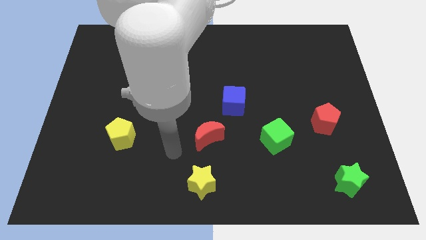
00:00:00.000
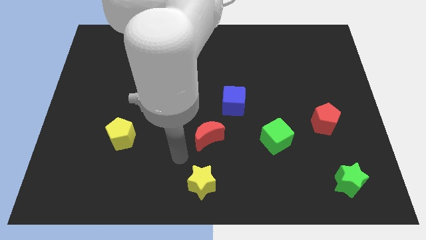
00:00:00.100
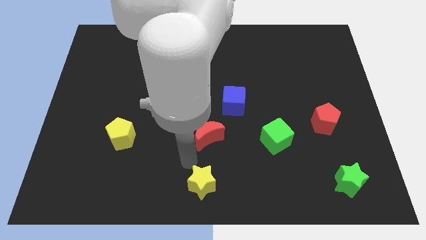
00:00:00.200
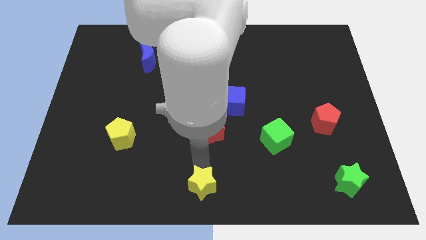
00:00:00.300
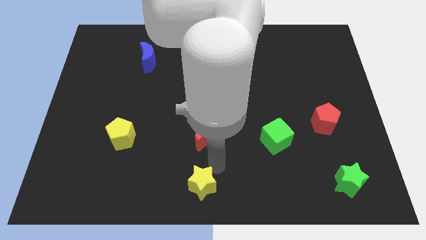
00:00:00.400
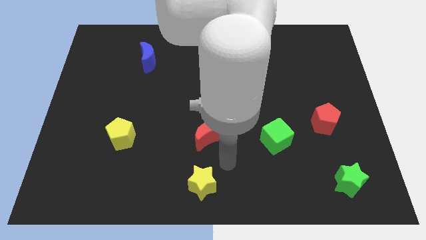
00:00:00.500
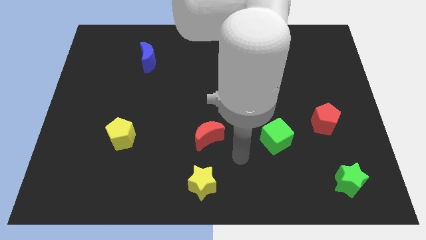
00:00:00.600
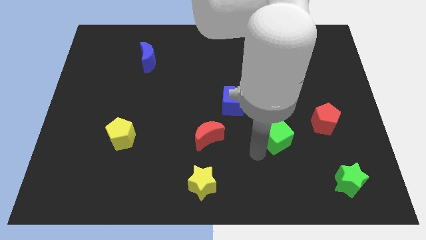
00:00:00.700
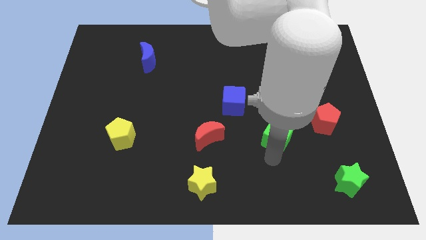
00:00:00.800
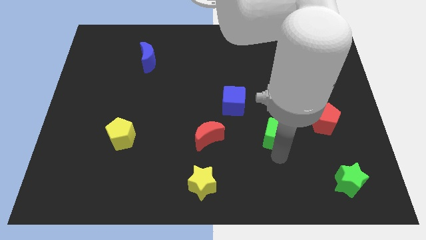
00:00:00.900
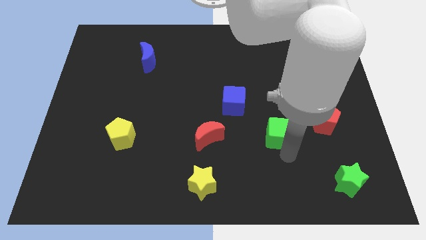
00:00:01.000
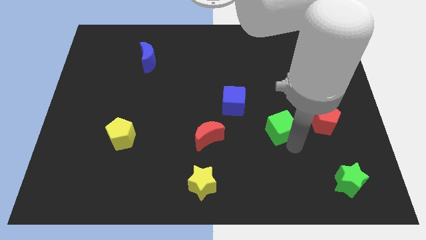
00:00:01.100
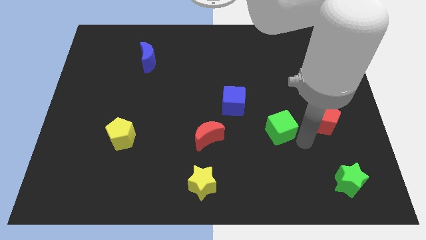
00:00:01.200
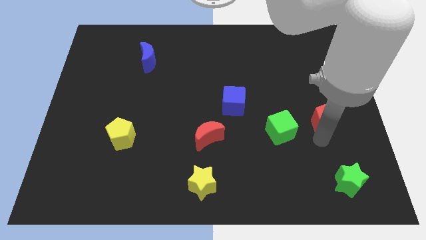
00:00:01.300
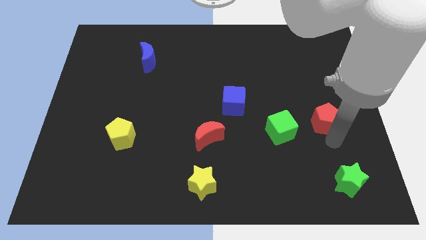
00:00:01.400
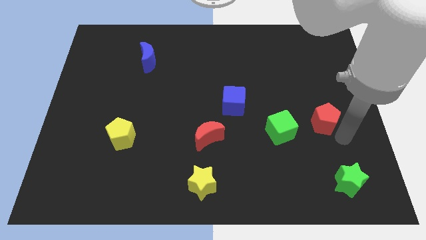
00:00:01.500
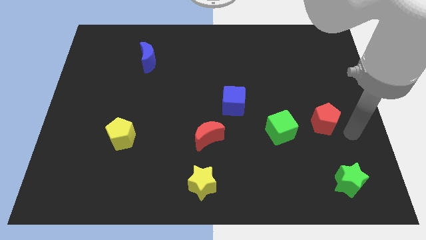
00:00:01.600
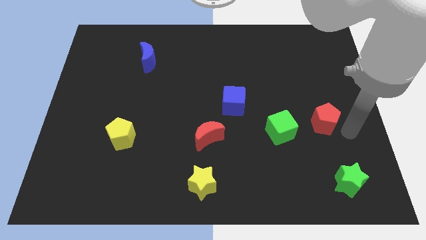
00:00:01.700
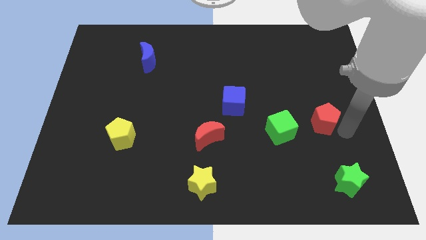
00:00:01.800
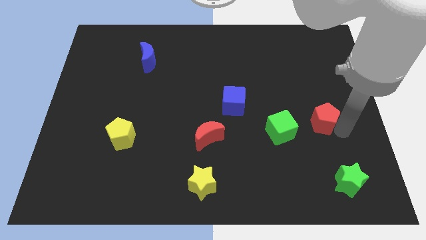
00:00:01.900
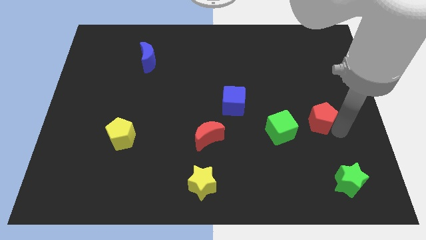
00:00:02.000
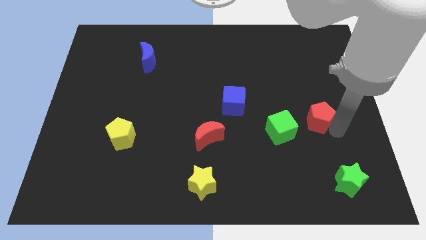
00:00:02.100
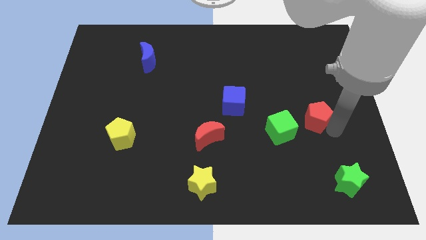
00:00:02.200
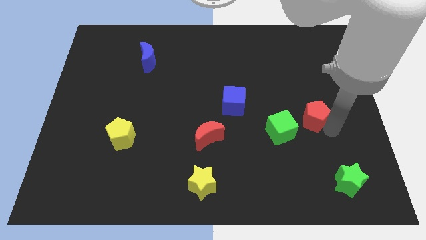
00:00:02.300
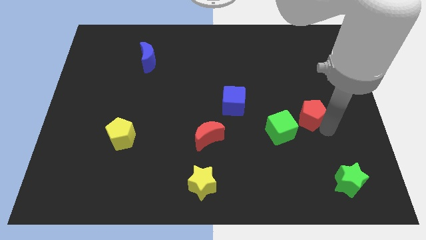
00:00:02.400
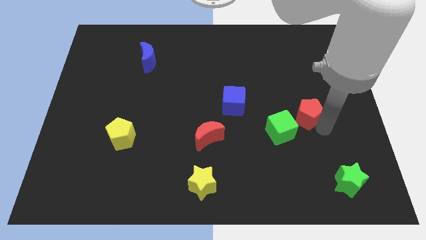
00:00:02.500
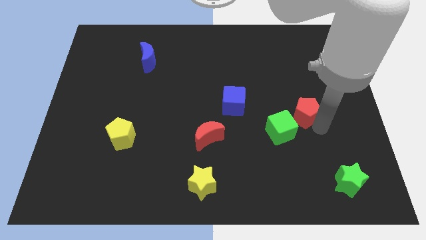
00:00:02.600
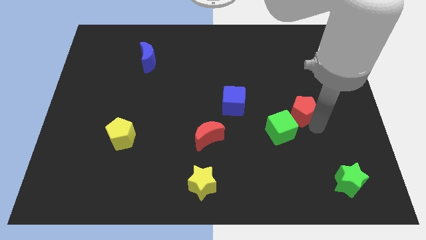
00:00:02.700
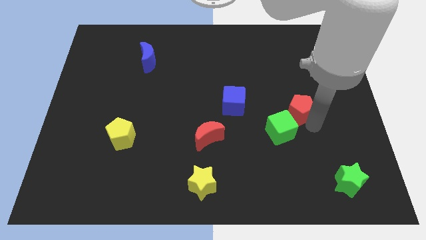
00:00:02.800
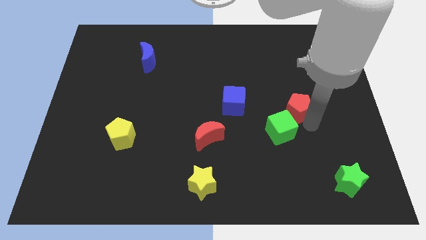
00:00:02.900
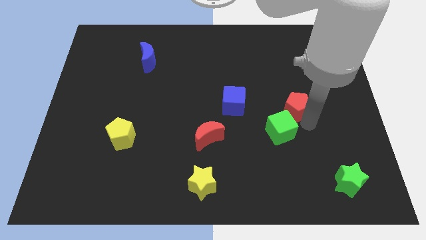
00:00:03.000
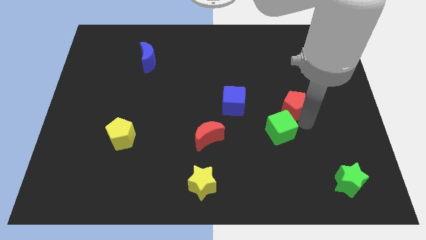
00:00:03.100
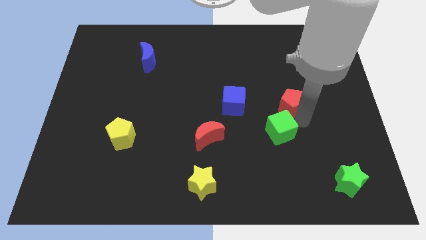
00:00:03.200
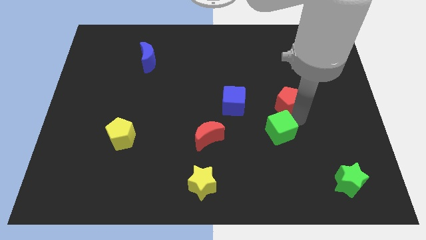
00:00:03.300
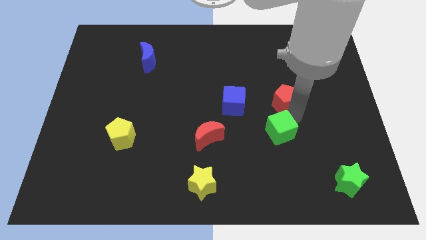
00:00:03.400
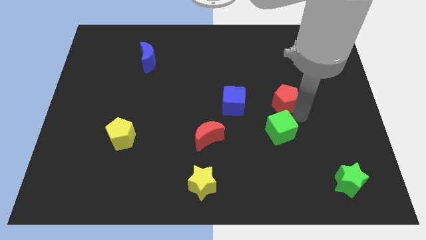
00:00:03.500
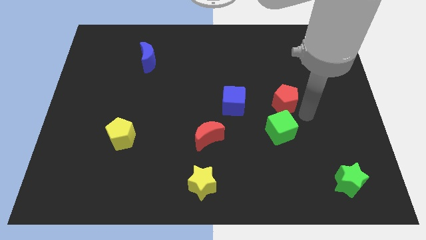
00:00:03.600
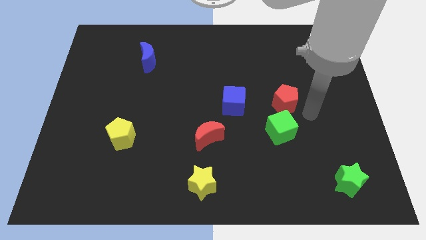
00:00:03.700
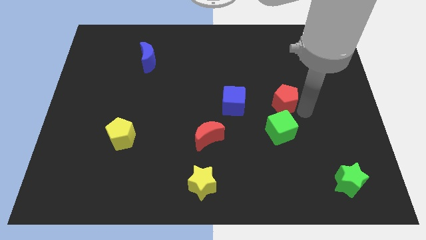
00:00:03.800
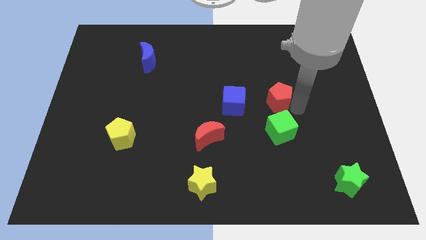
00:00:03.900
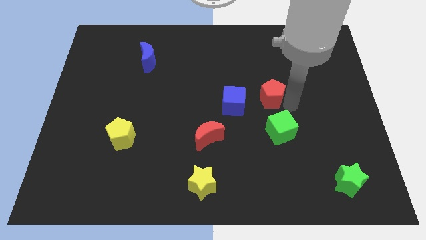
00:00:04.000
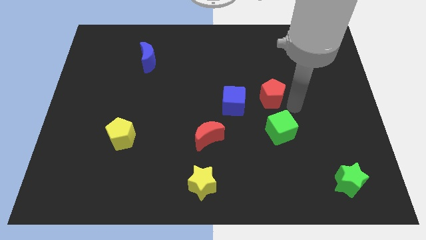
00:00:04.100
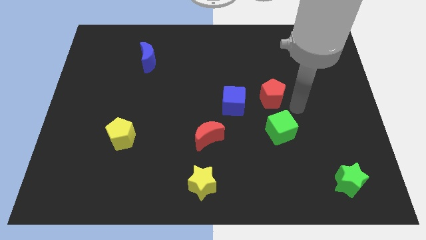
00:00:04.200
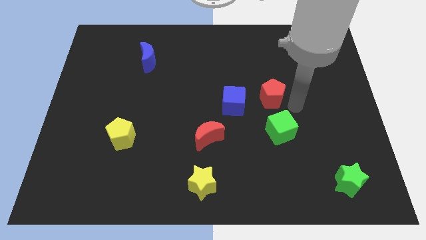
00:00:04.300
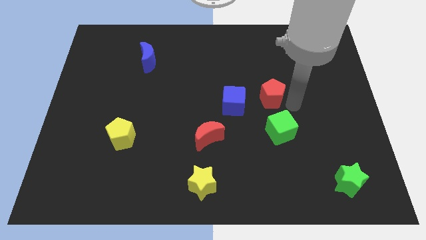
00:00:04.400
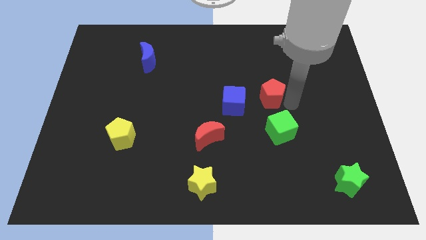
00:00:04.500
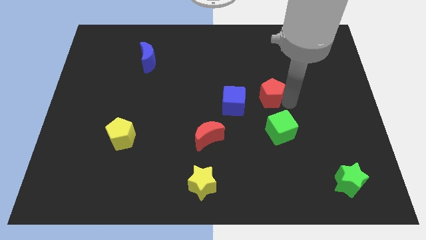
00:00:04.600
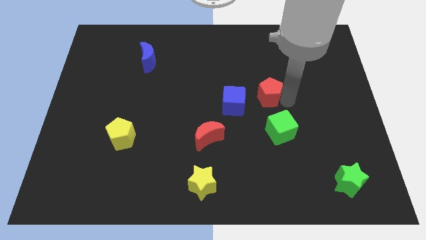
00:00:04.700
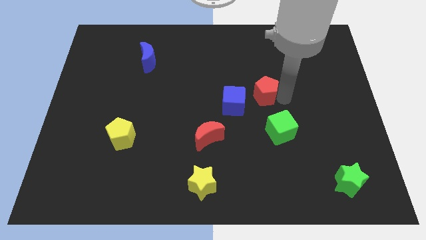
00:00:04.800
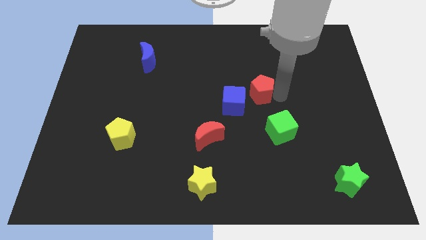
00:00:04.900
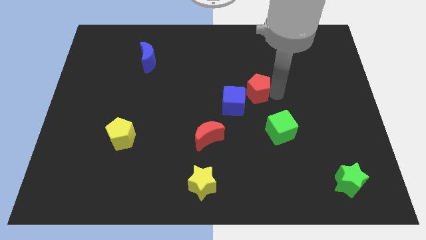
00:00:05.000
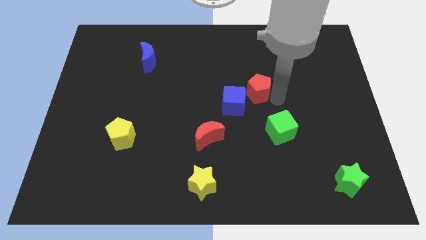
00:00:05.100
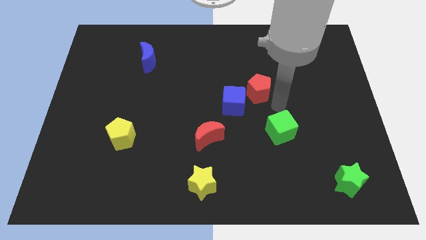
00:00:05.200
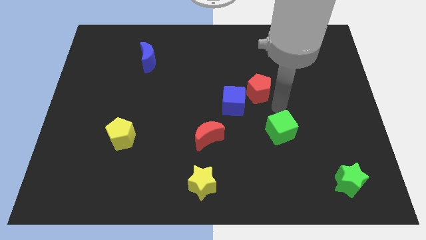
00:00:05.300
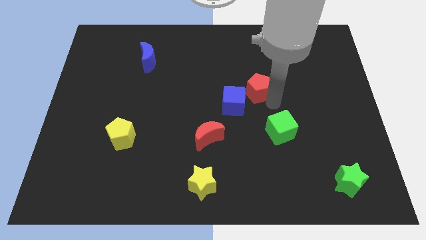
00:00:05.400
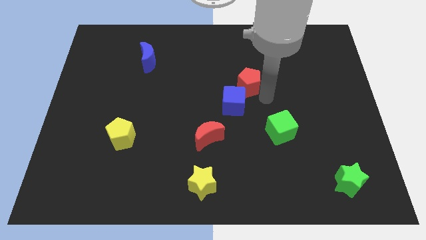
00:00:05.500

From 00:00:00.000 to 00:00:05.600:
move the red pentagon above the blue cube

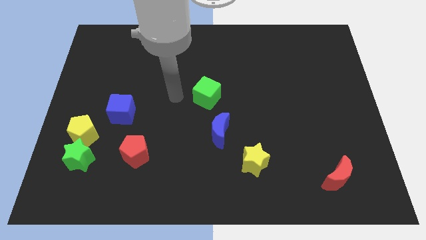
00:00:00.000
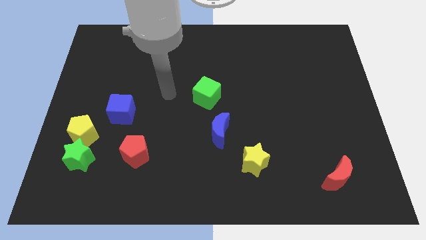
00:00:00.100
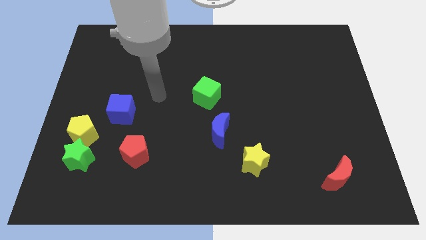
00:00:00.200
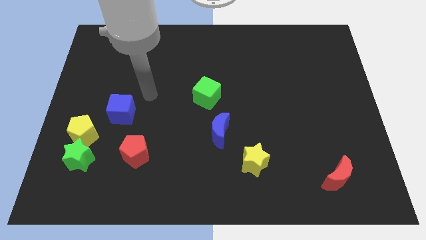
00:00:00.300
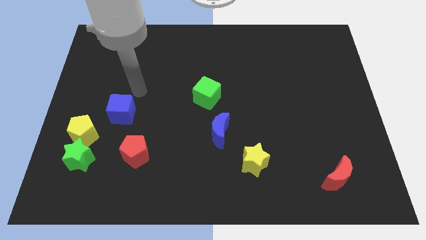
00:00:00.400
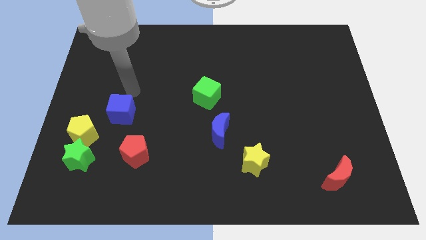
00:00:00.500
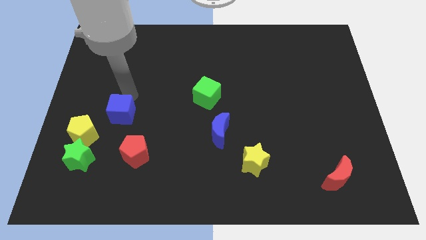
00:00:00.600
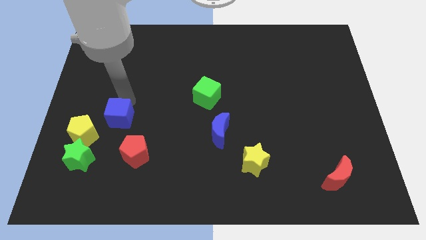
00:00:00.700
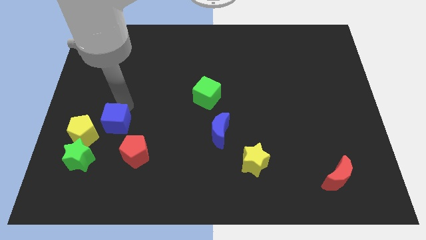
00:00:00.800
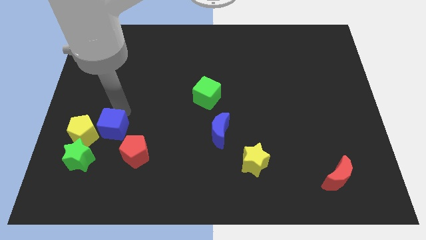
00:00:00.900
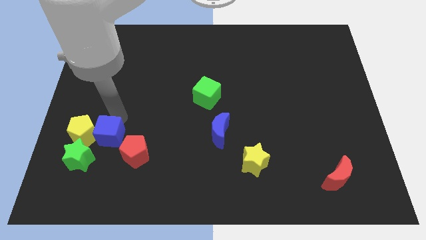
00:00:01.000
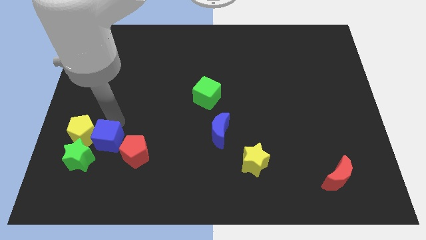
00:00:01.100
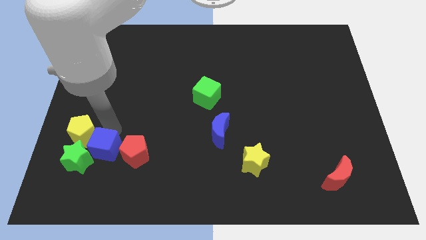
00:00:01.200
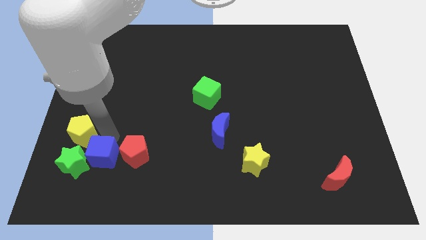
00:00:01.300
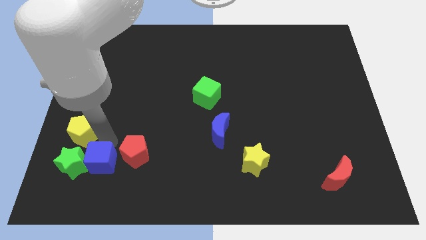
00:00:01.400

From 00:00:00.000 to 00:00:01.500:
slide the blue cube to the bottom of the yellow pentagon
